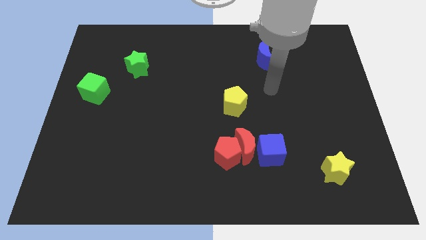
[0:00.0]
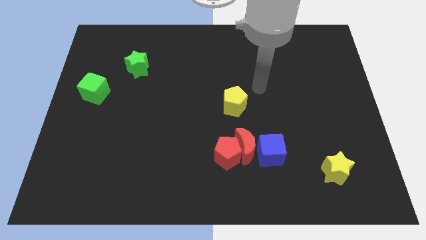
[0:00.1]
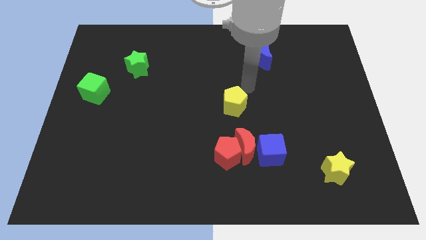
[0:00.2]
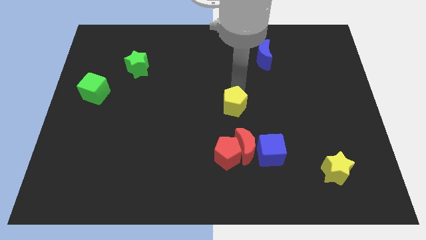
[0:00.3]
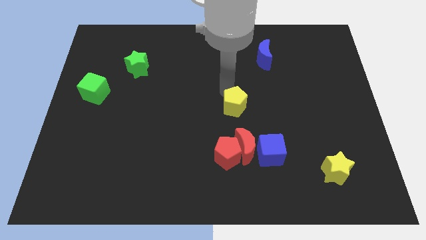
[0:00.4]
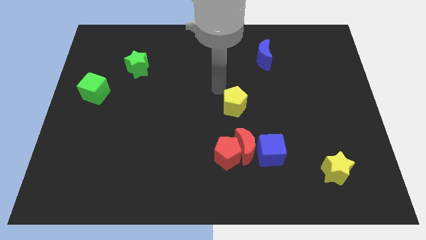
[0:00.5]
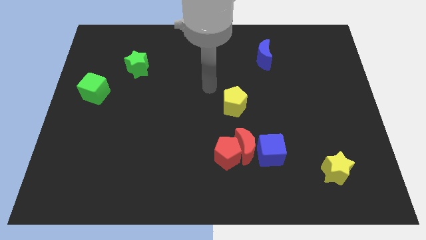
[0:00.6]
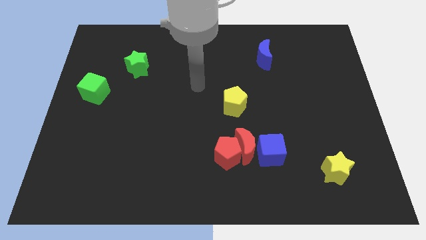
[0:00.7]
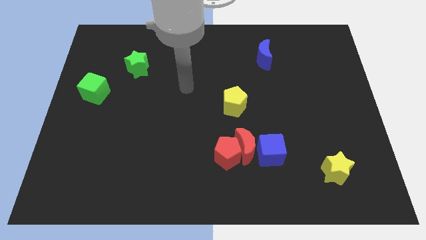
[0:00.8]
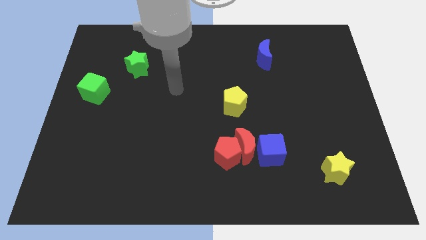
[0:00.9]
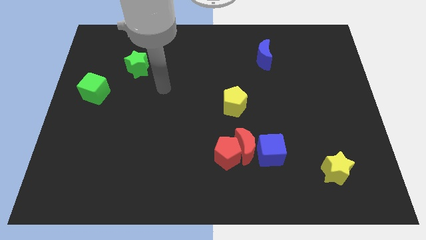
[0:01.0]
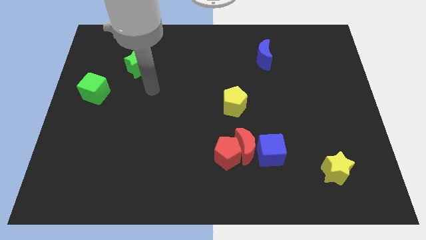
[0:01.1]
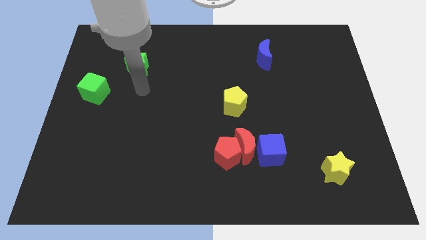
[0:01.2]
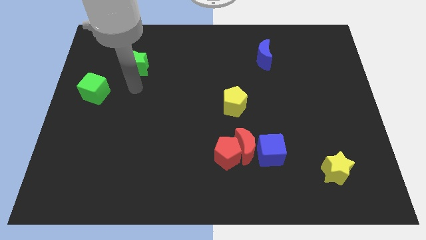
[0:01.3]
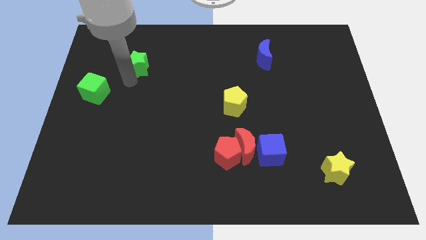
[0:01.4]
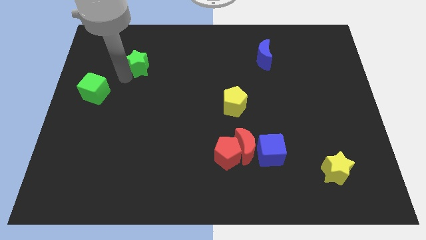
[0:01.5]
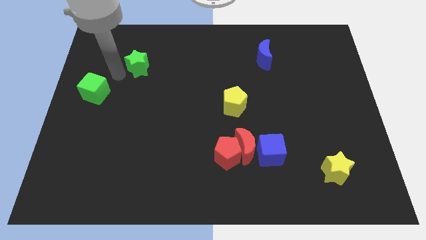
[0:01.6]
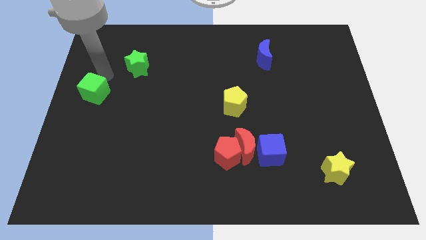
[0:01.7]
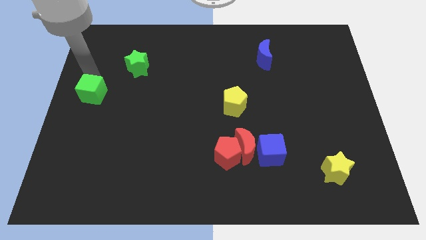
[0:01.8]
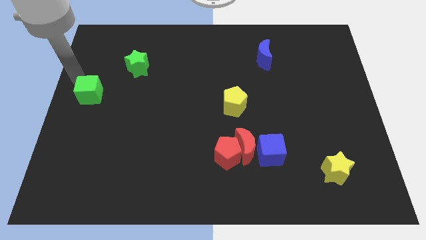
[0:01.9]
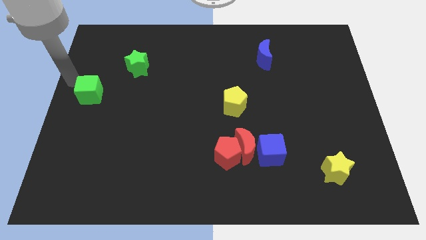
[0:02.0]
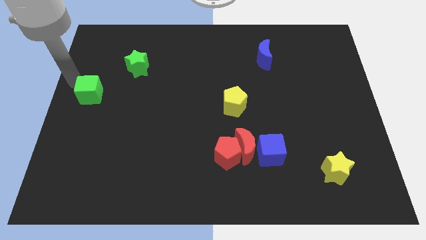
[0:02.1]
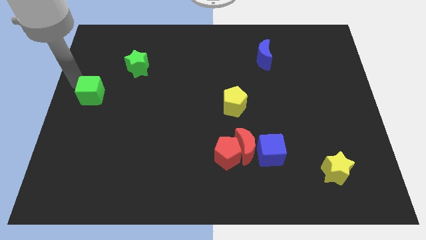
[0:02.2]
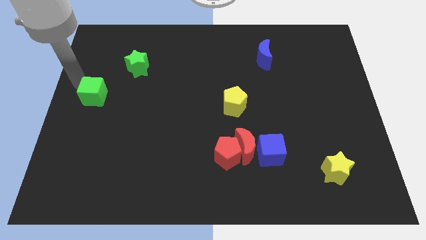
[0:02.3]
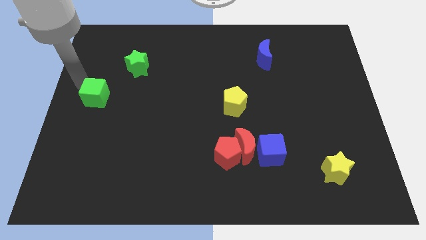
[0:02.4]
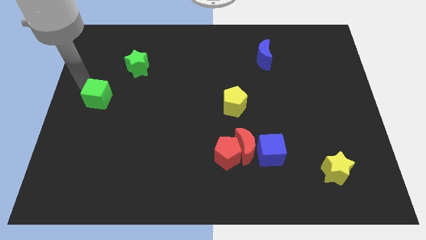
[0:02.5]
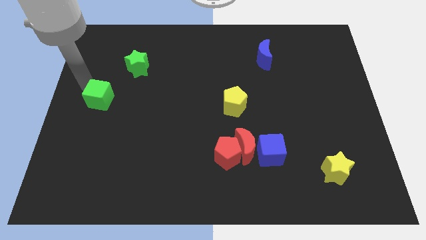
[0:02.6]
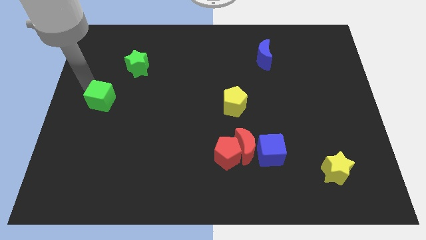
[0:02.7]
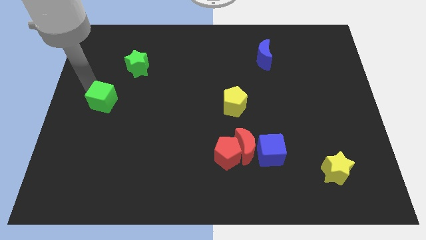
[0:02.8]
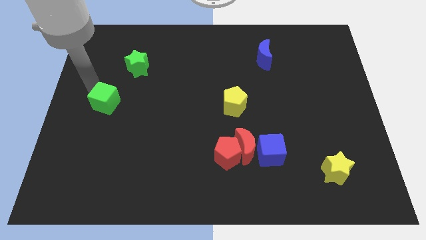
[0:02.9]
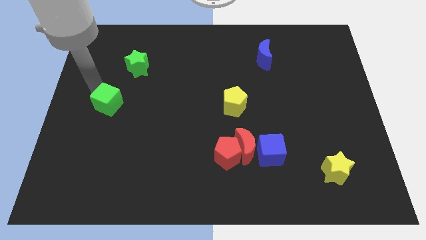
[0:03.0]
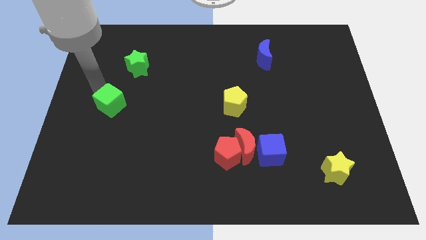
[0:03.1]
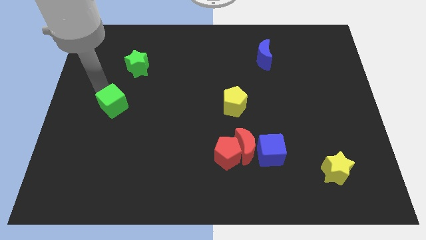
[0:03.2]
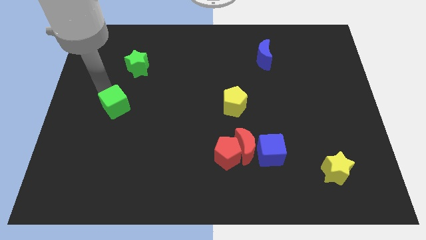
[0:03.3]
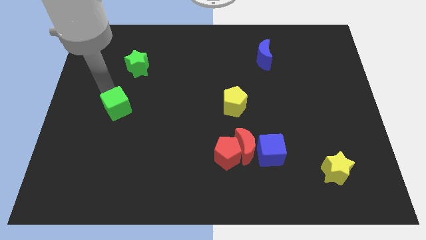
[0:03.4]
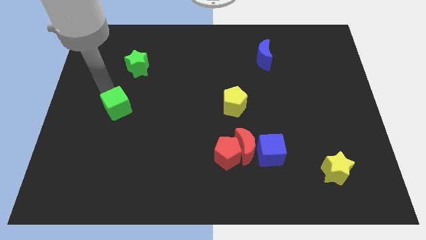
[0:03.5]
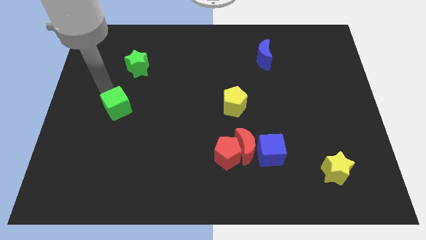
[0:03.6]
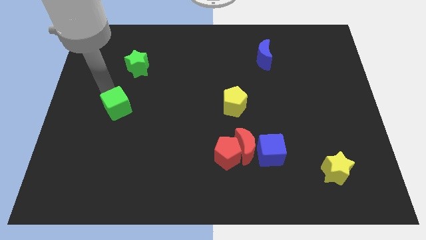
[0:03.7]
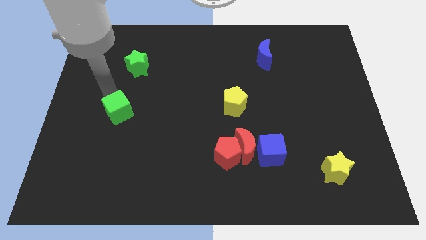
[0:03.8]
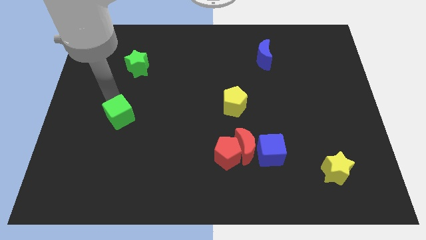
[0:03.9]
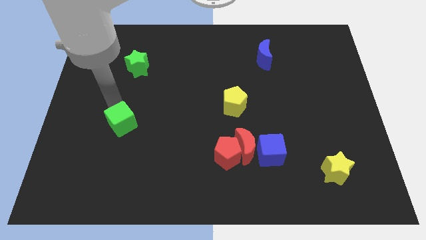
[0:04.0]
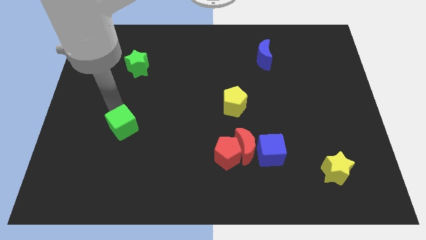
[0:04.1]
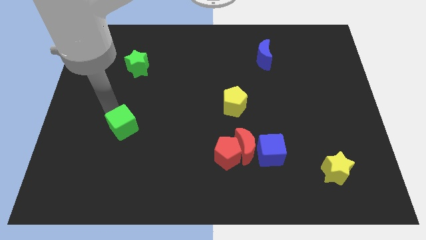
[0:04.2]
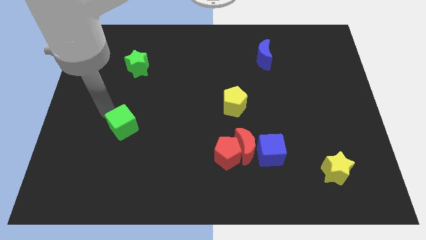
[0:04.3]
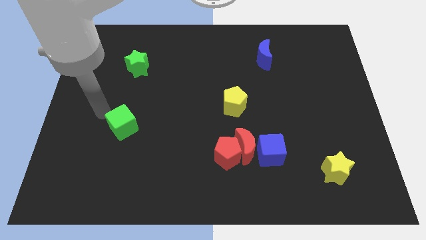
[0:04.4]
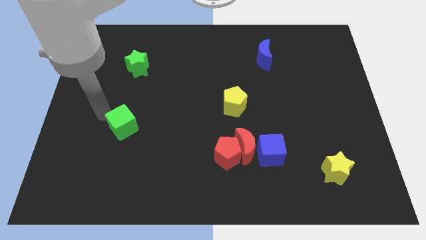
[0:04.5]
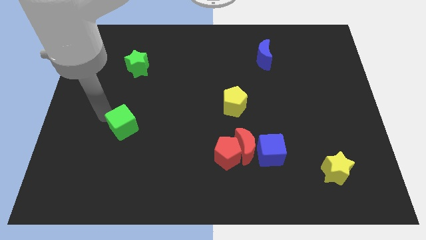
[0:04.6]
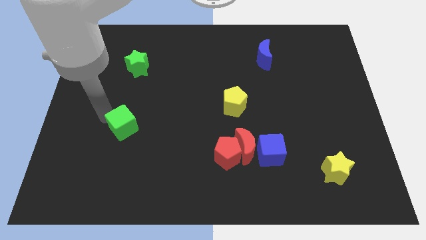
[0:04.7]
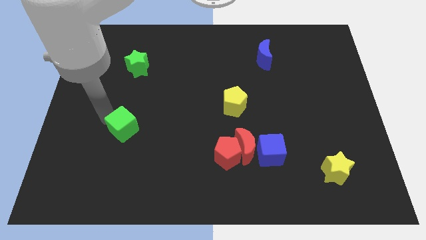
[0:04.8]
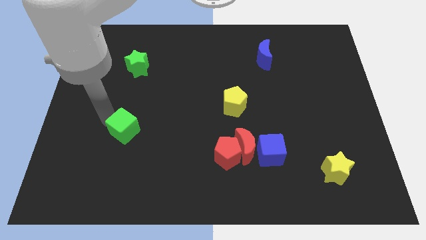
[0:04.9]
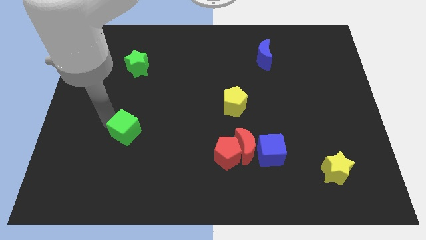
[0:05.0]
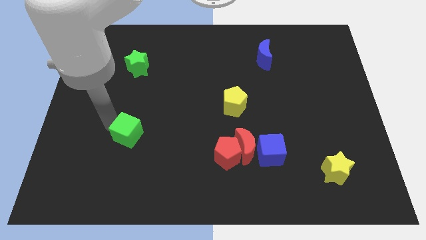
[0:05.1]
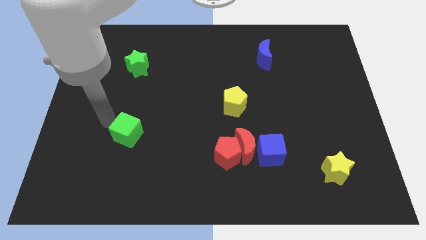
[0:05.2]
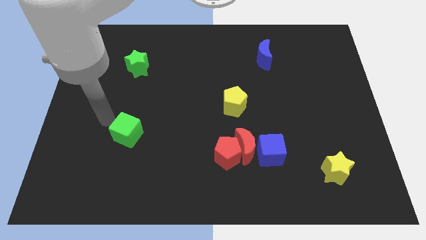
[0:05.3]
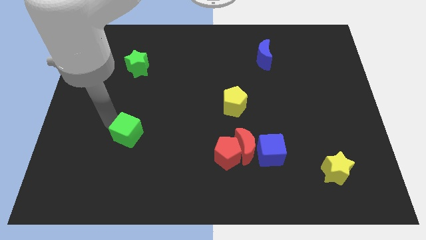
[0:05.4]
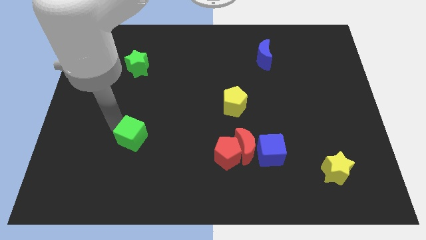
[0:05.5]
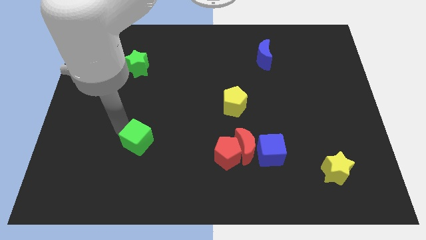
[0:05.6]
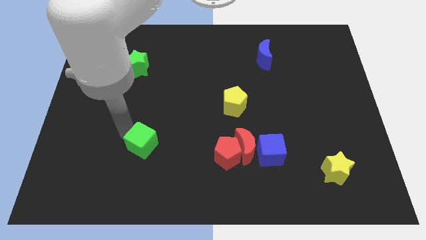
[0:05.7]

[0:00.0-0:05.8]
slide the green cube diagonally downwards and to the right

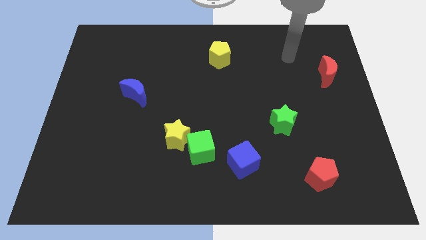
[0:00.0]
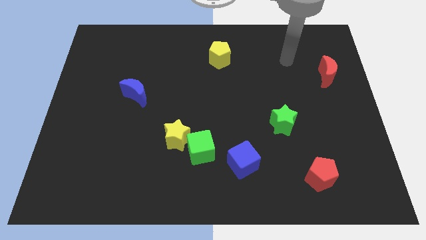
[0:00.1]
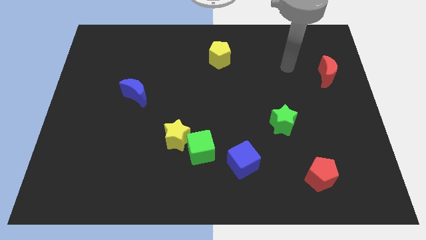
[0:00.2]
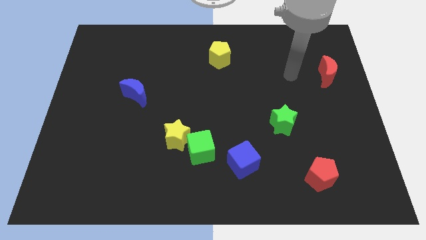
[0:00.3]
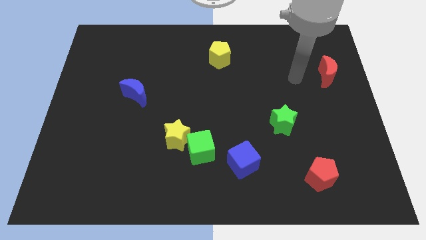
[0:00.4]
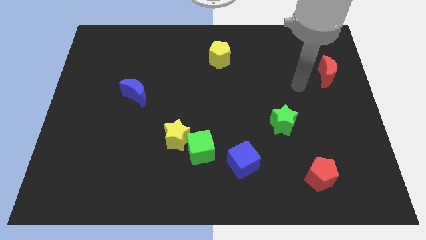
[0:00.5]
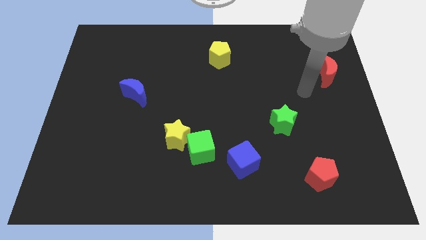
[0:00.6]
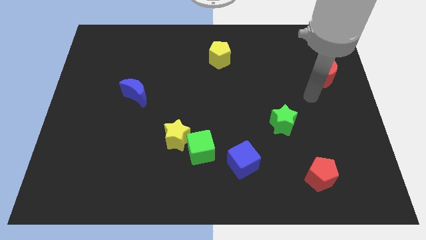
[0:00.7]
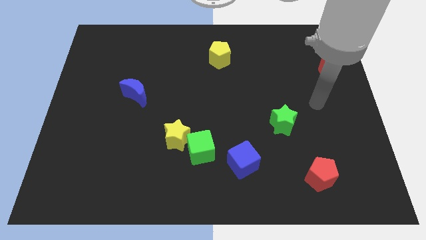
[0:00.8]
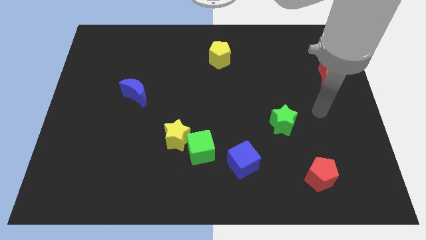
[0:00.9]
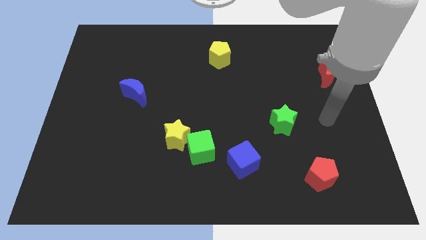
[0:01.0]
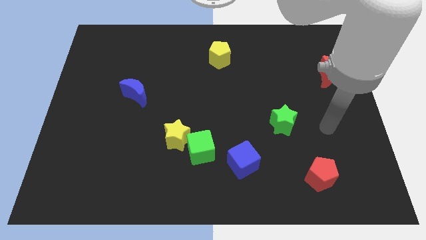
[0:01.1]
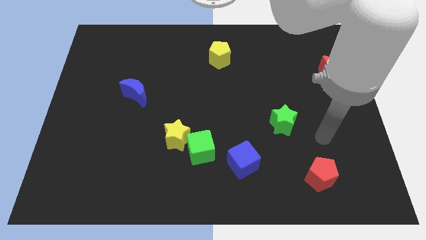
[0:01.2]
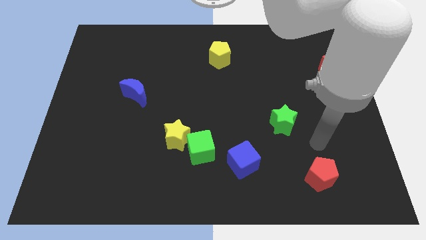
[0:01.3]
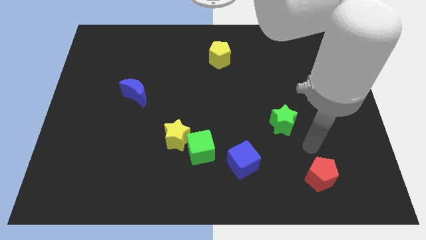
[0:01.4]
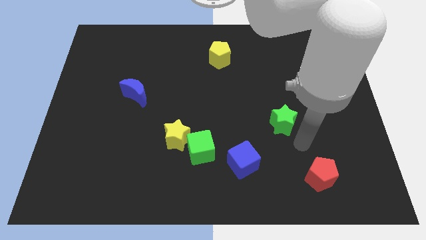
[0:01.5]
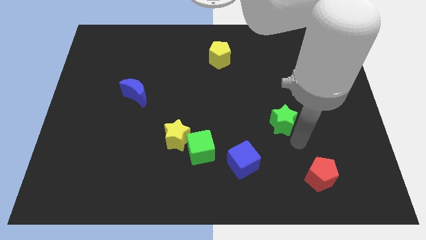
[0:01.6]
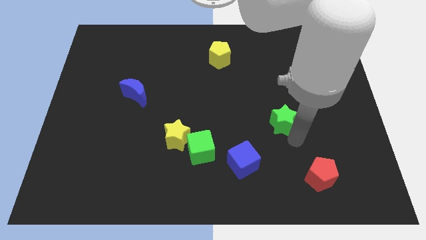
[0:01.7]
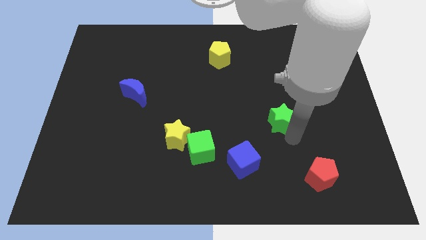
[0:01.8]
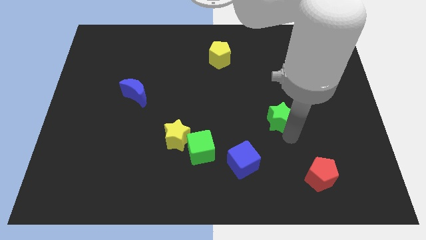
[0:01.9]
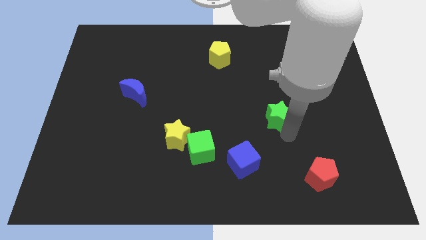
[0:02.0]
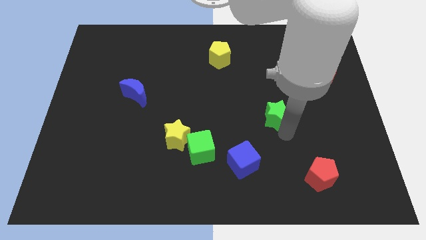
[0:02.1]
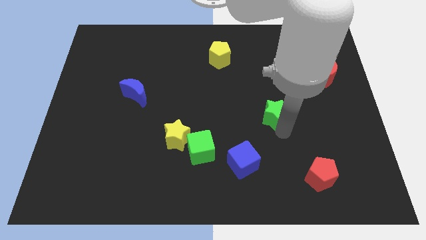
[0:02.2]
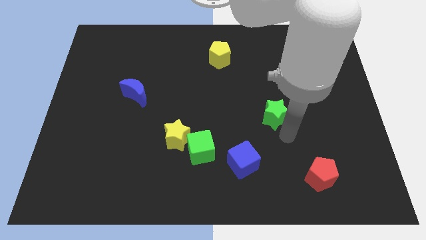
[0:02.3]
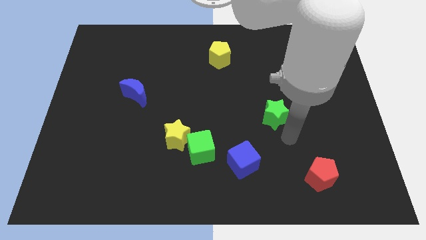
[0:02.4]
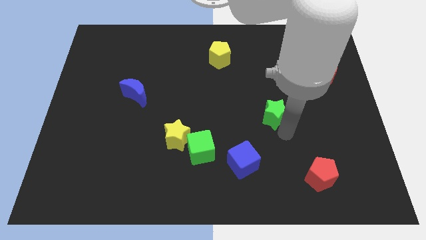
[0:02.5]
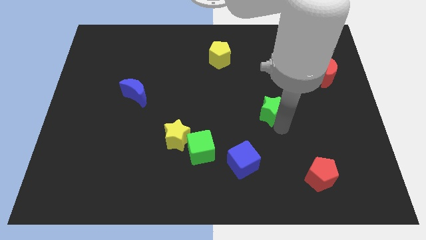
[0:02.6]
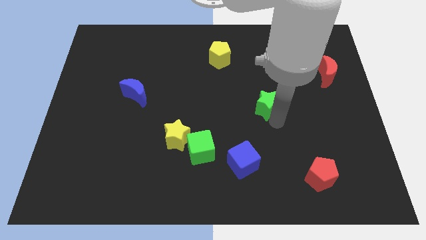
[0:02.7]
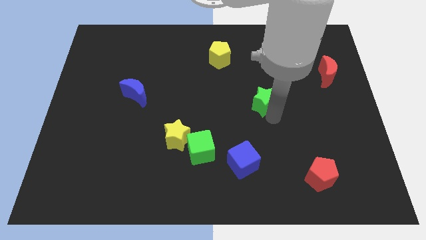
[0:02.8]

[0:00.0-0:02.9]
push the green star diagonally up and left a little
